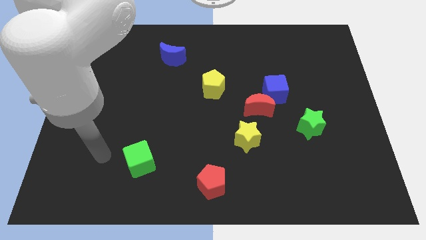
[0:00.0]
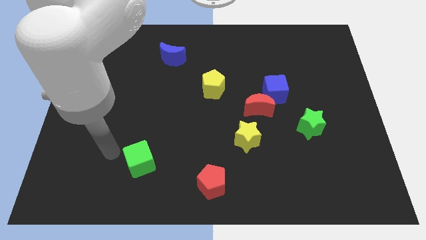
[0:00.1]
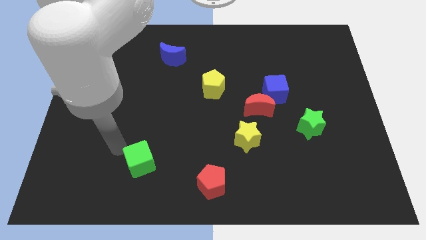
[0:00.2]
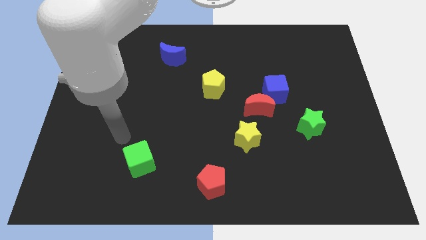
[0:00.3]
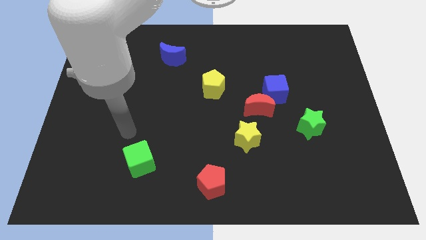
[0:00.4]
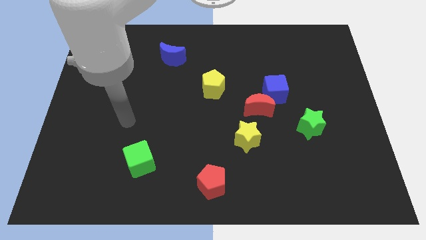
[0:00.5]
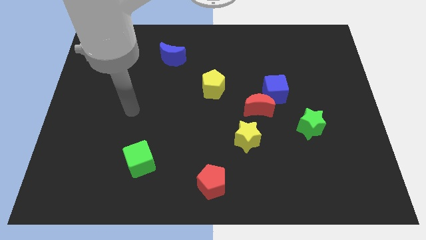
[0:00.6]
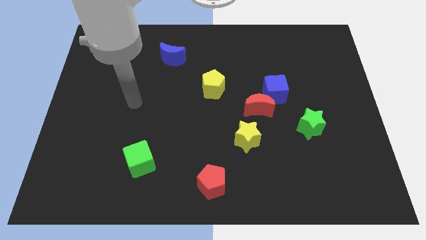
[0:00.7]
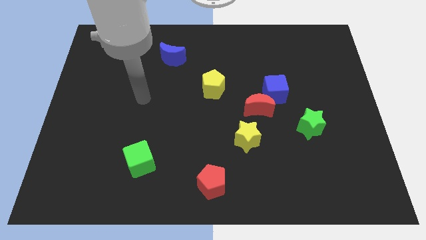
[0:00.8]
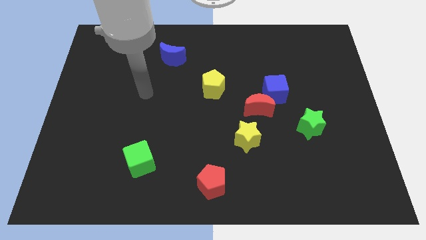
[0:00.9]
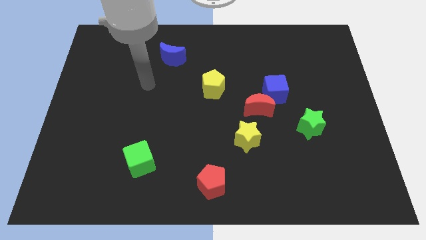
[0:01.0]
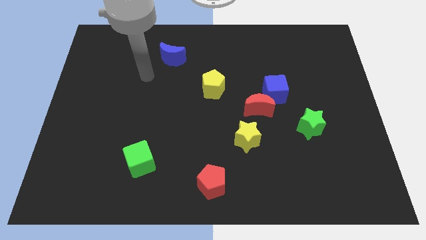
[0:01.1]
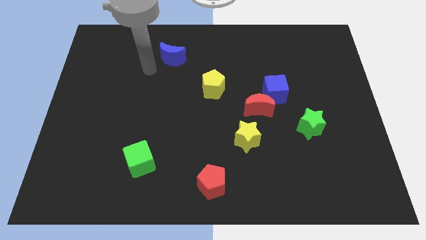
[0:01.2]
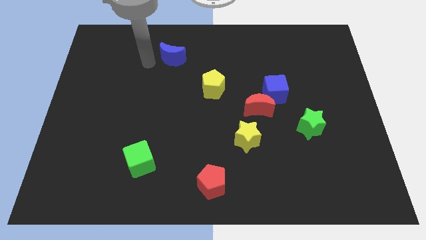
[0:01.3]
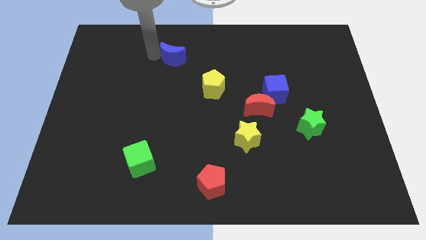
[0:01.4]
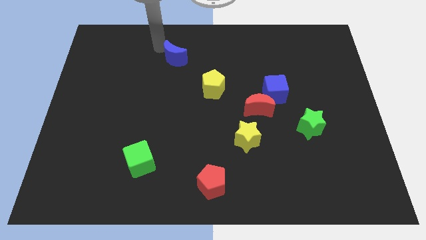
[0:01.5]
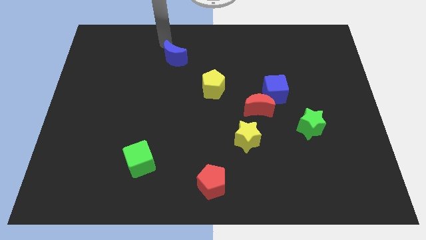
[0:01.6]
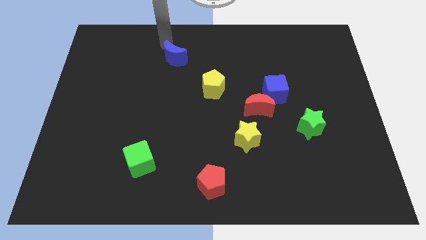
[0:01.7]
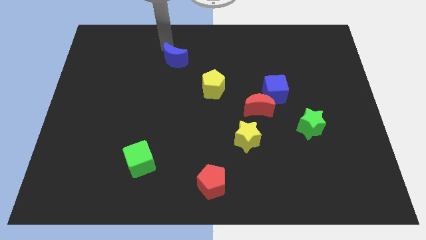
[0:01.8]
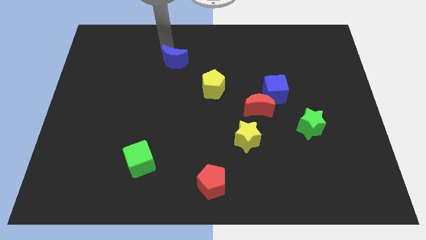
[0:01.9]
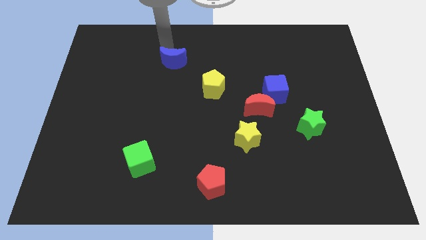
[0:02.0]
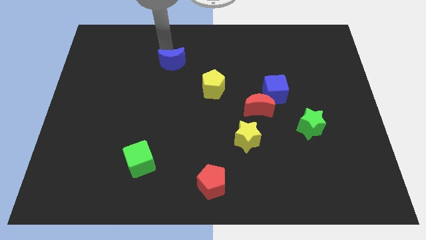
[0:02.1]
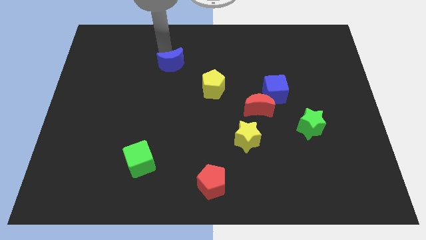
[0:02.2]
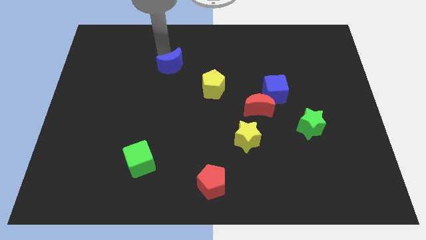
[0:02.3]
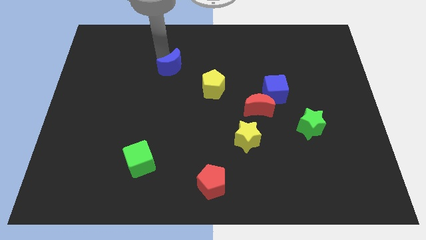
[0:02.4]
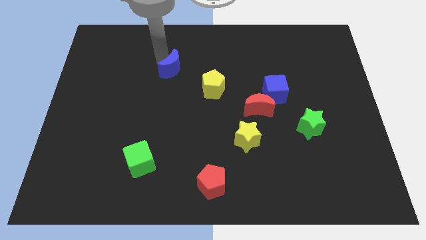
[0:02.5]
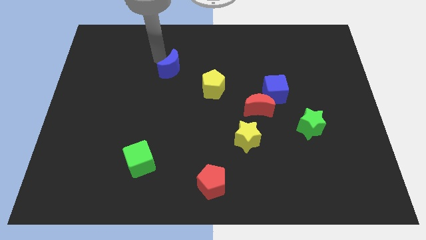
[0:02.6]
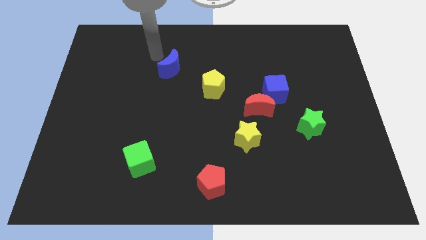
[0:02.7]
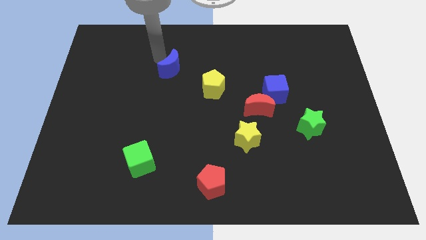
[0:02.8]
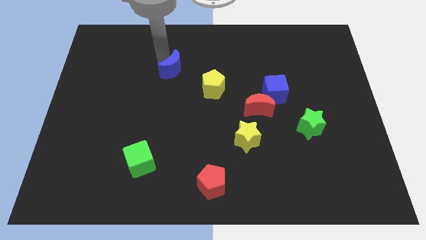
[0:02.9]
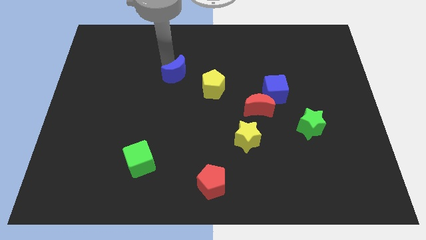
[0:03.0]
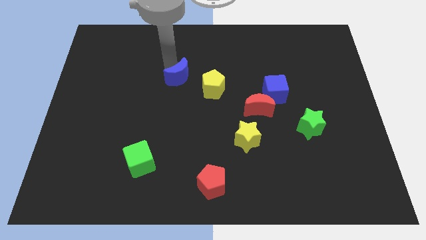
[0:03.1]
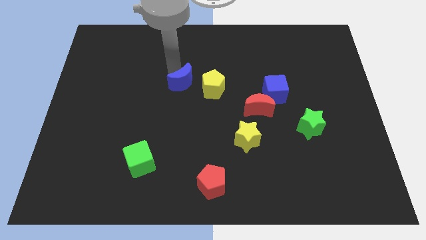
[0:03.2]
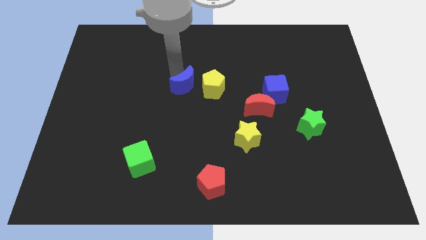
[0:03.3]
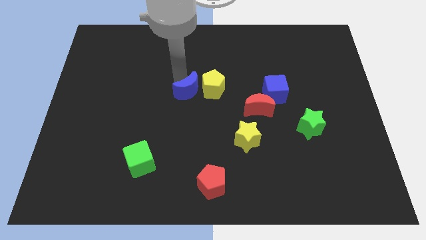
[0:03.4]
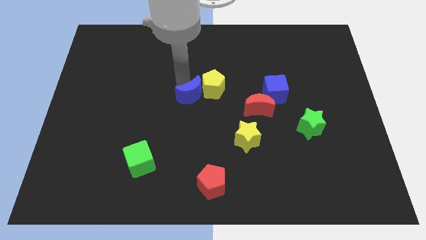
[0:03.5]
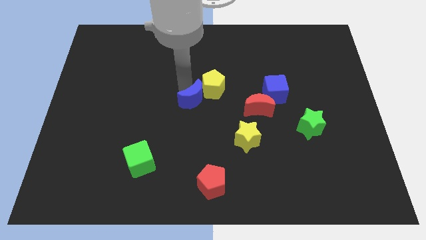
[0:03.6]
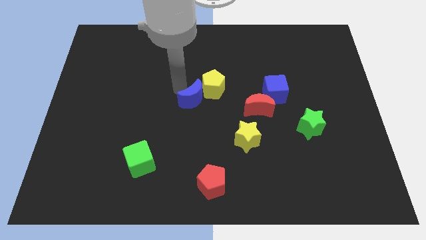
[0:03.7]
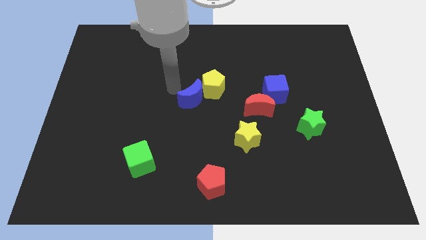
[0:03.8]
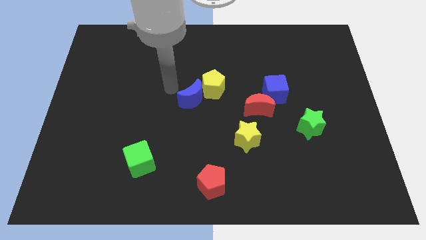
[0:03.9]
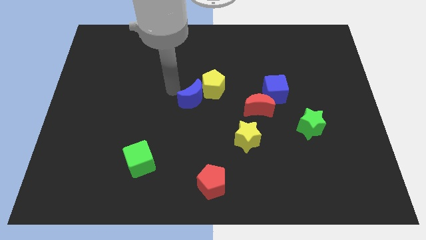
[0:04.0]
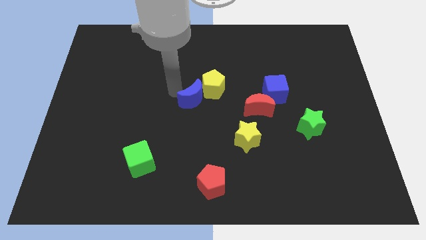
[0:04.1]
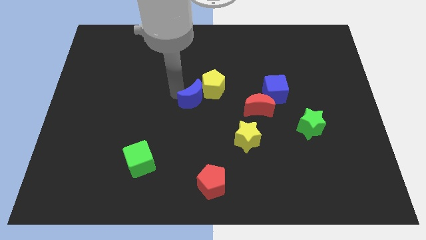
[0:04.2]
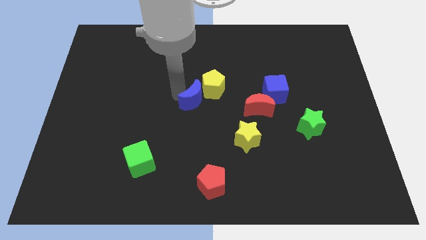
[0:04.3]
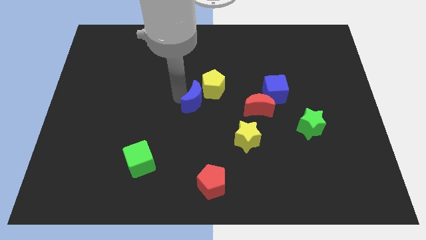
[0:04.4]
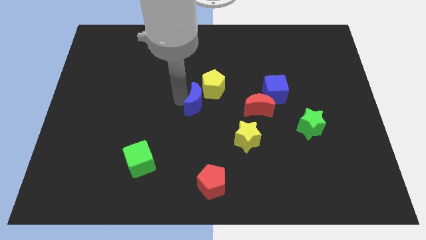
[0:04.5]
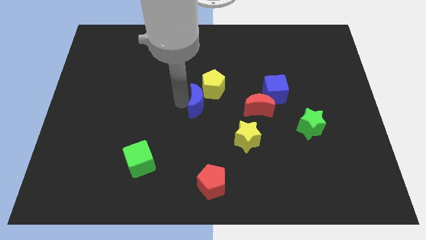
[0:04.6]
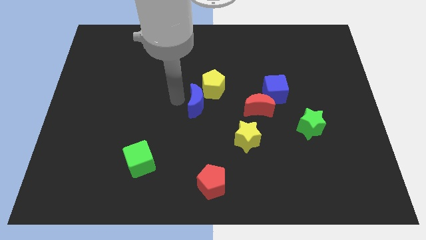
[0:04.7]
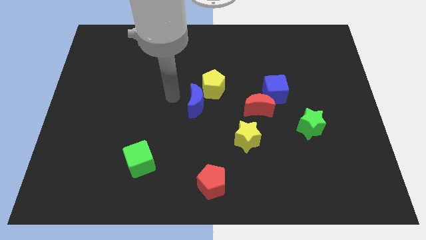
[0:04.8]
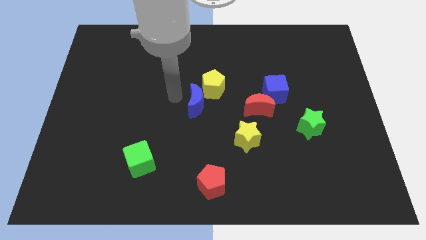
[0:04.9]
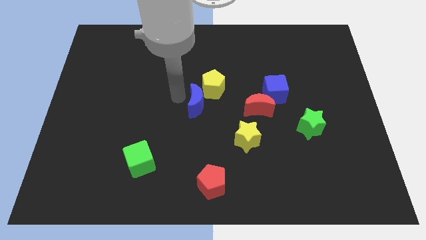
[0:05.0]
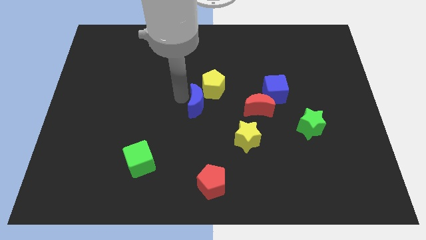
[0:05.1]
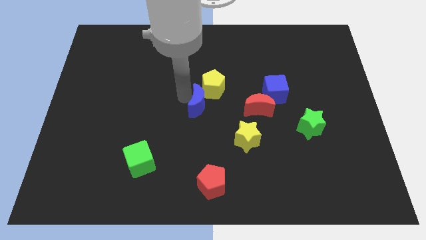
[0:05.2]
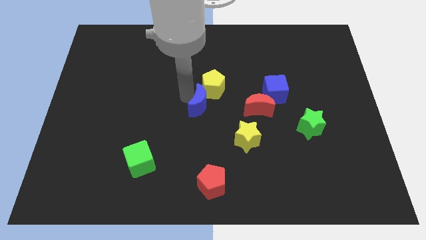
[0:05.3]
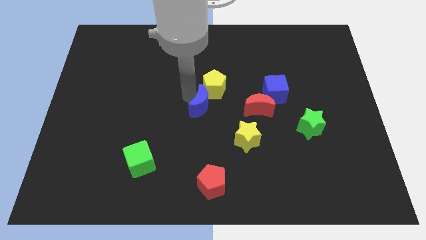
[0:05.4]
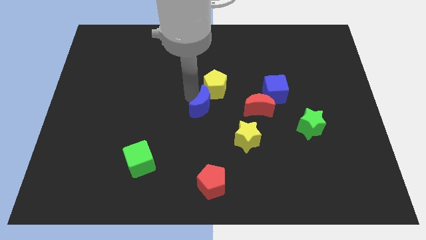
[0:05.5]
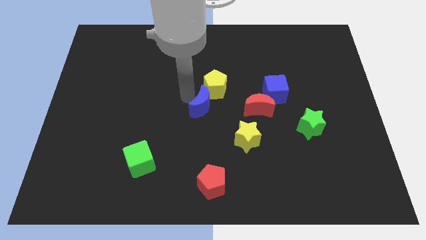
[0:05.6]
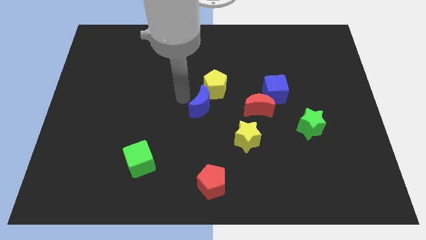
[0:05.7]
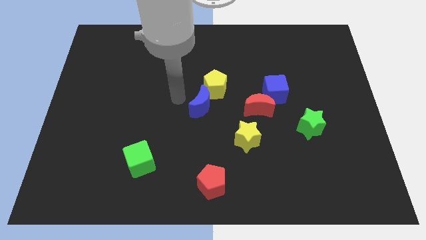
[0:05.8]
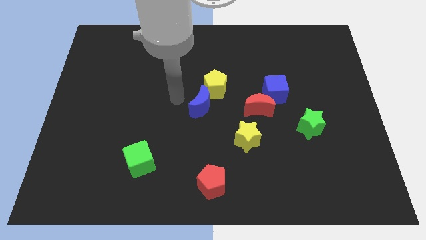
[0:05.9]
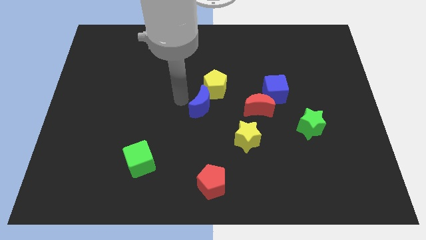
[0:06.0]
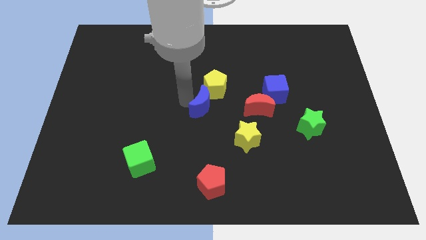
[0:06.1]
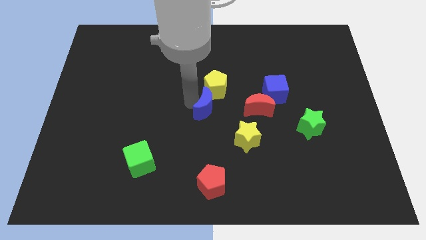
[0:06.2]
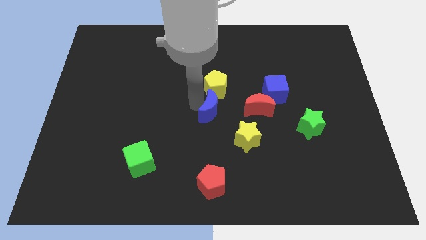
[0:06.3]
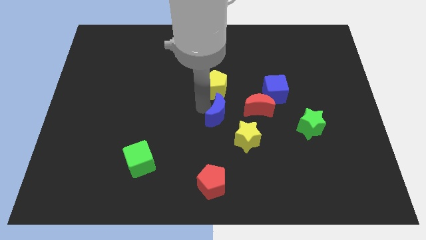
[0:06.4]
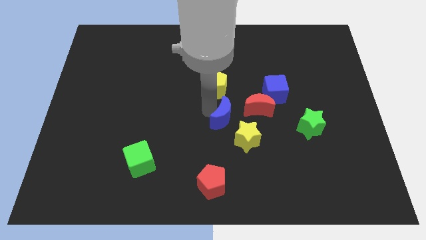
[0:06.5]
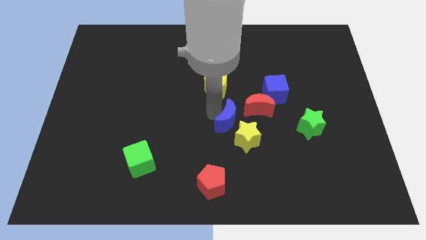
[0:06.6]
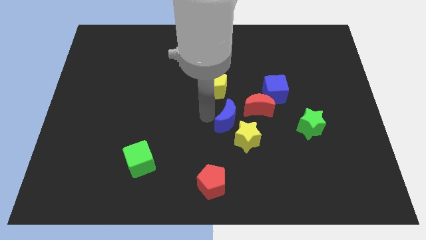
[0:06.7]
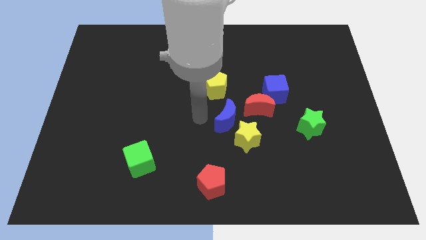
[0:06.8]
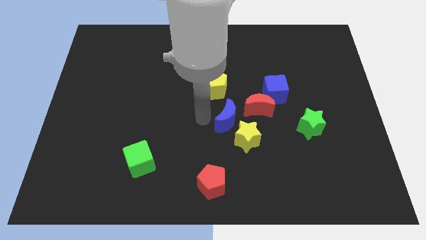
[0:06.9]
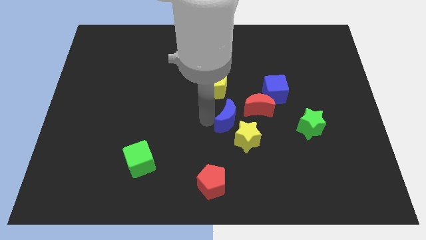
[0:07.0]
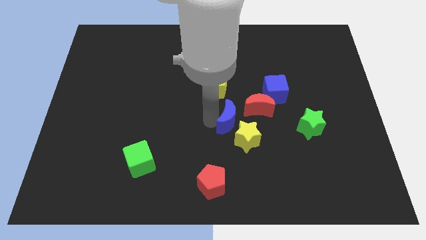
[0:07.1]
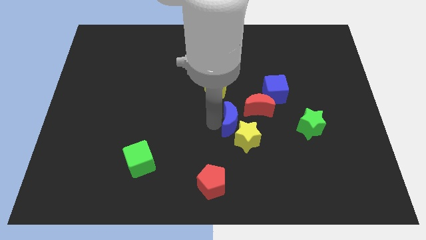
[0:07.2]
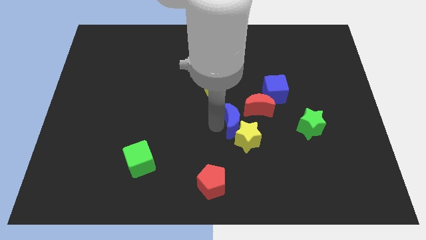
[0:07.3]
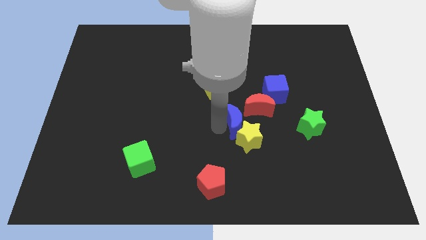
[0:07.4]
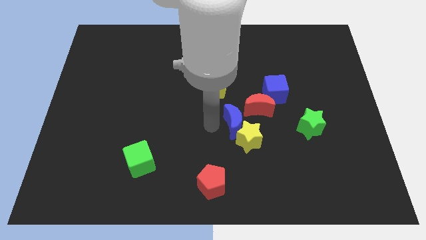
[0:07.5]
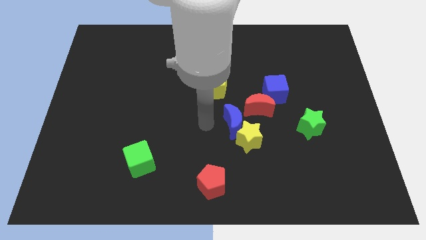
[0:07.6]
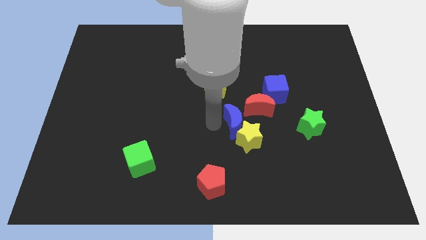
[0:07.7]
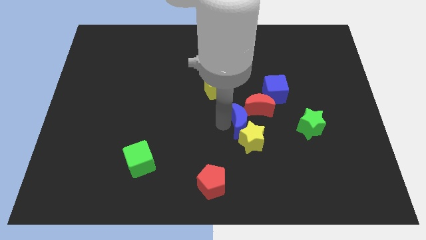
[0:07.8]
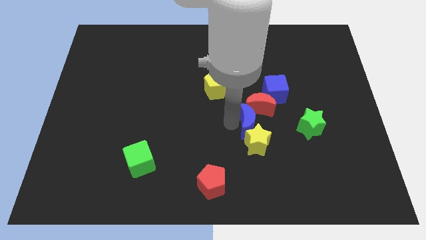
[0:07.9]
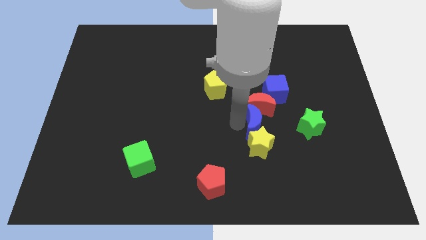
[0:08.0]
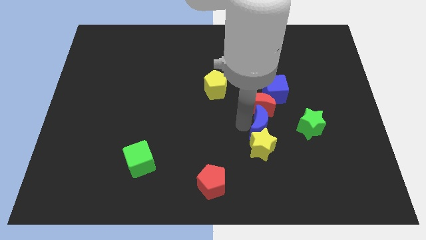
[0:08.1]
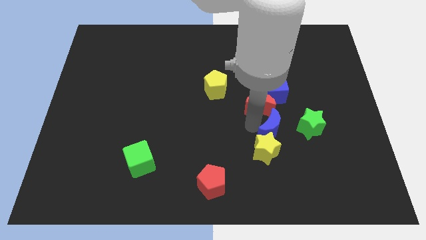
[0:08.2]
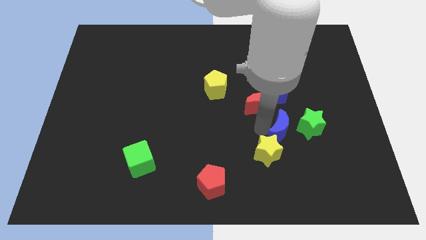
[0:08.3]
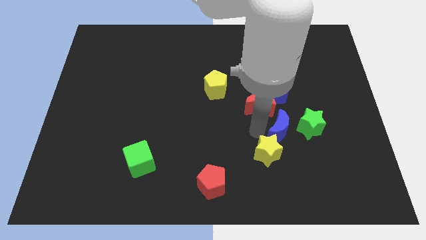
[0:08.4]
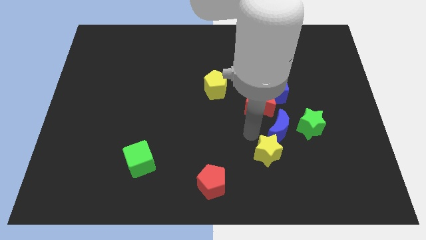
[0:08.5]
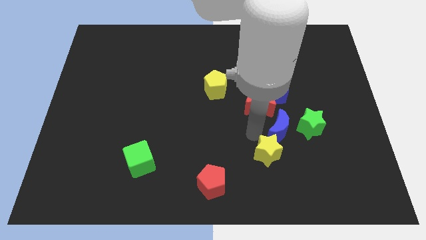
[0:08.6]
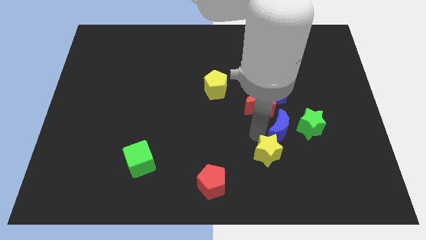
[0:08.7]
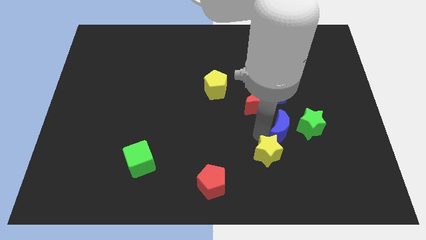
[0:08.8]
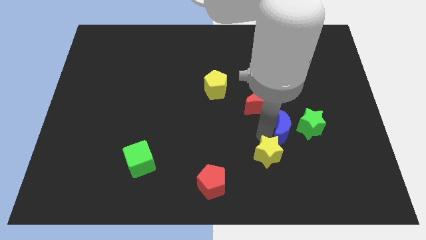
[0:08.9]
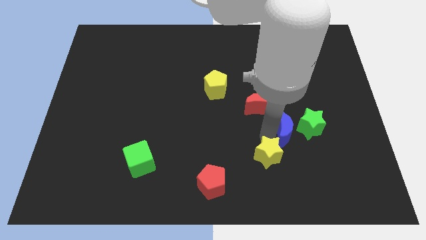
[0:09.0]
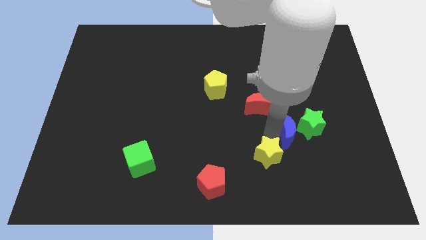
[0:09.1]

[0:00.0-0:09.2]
put the blue moon to the green star
